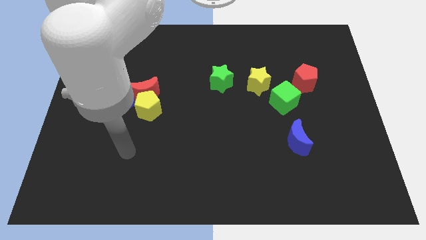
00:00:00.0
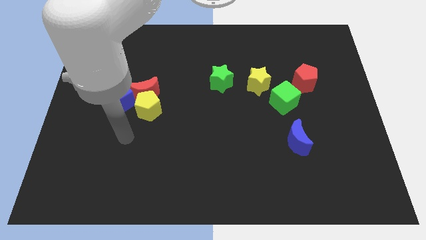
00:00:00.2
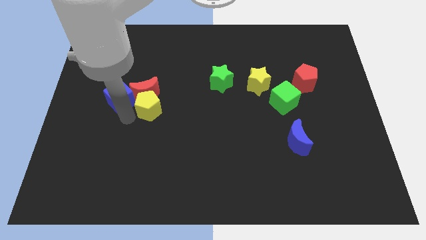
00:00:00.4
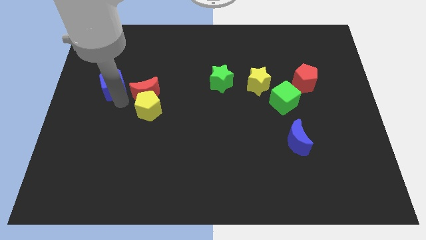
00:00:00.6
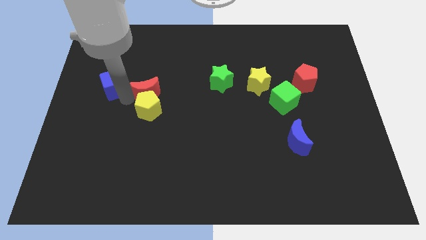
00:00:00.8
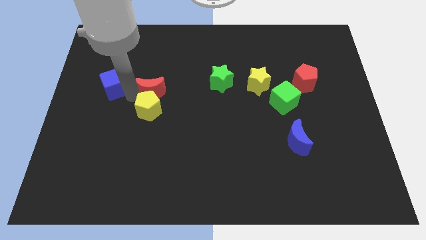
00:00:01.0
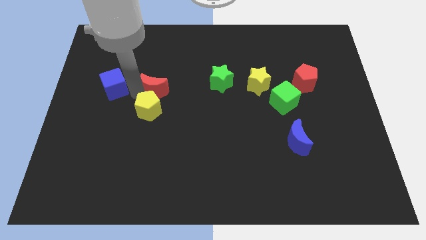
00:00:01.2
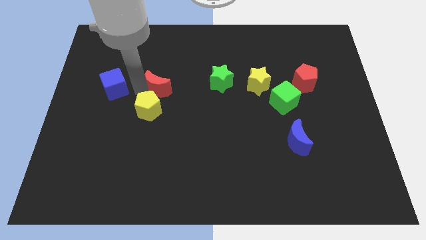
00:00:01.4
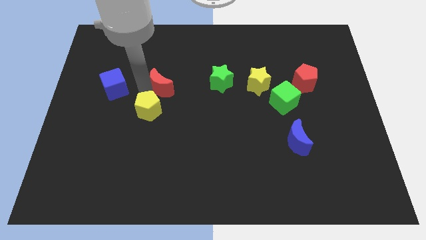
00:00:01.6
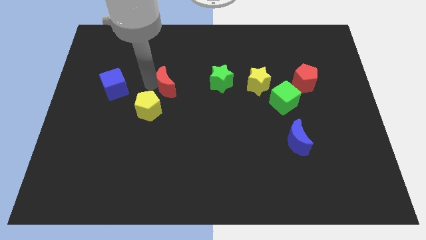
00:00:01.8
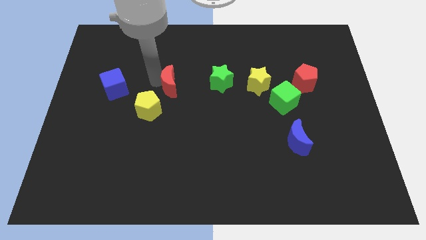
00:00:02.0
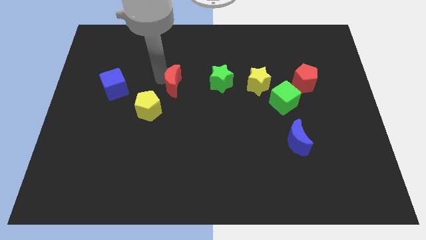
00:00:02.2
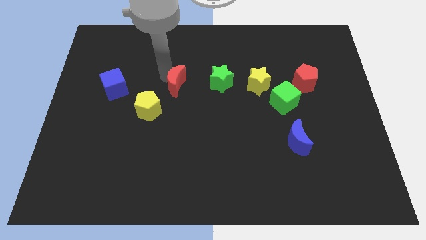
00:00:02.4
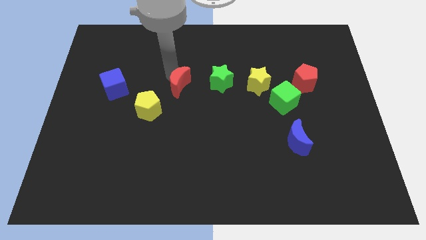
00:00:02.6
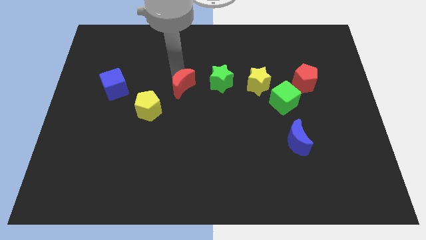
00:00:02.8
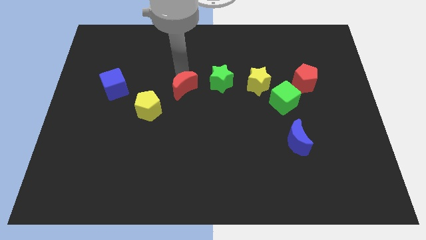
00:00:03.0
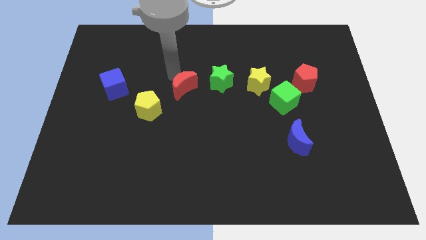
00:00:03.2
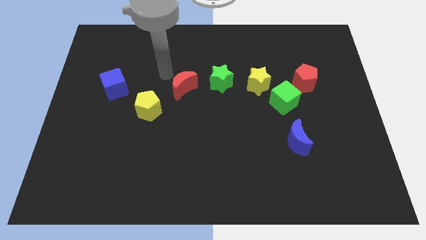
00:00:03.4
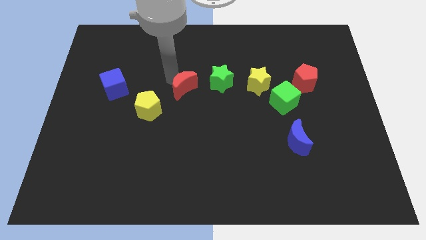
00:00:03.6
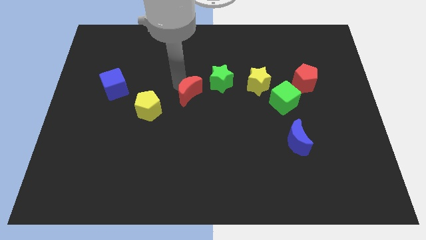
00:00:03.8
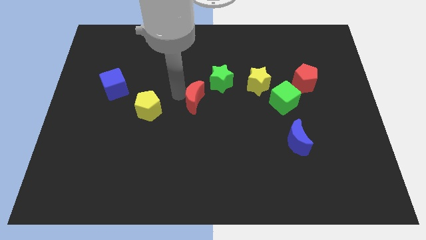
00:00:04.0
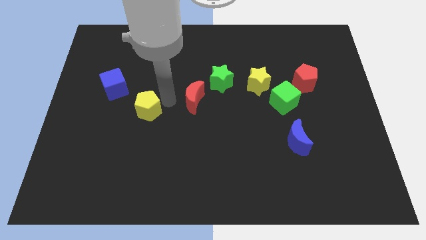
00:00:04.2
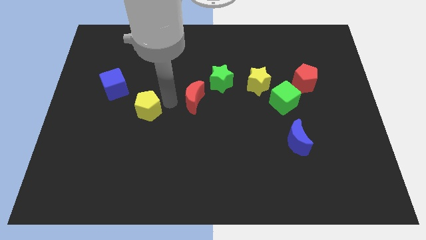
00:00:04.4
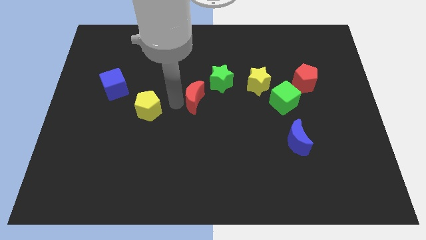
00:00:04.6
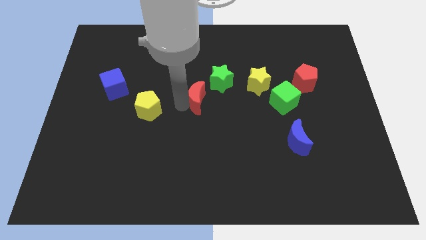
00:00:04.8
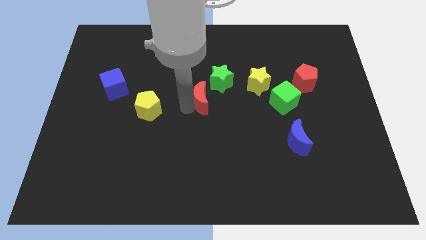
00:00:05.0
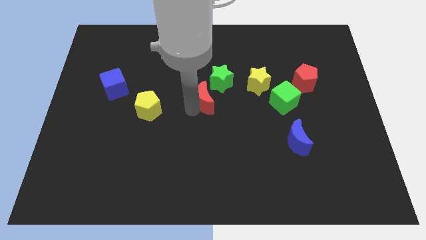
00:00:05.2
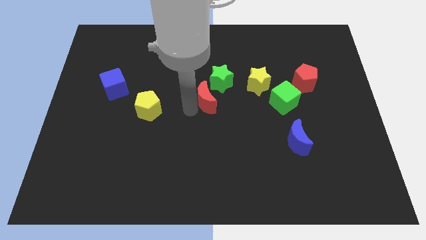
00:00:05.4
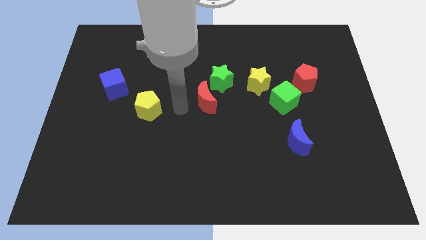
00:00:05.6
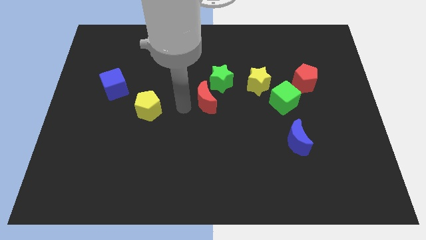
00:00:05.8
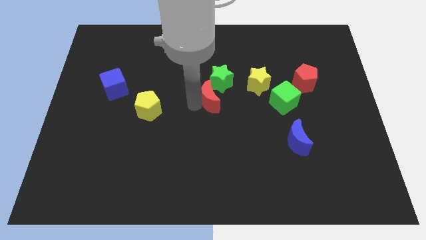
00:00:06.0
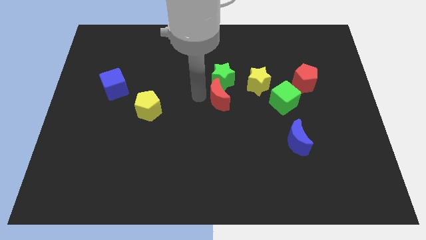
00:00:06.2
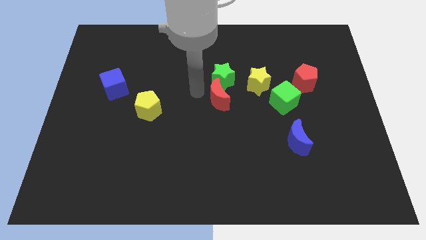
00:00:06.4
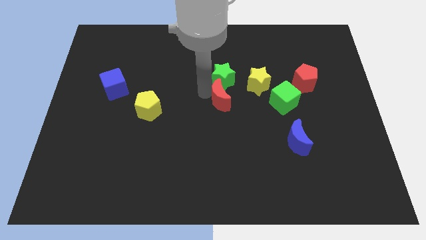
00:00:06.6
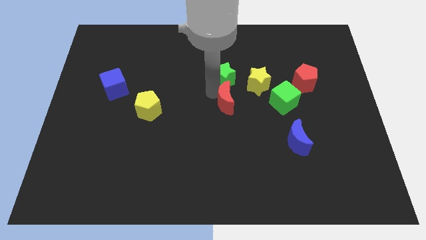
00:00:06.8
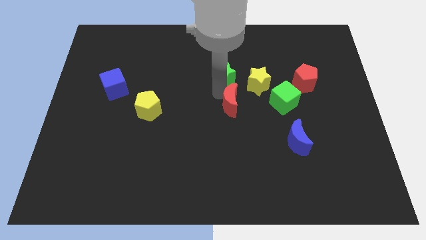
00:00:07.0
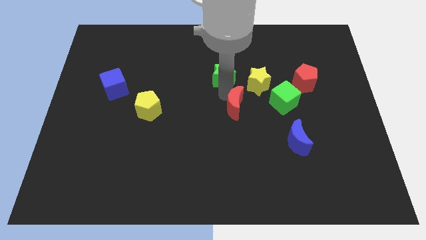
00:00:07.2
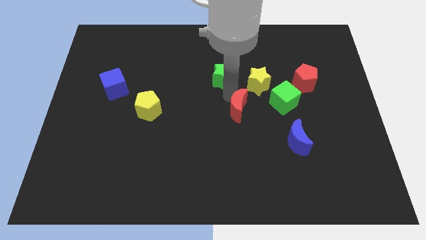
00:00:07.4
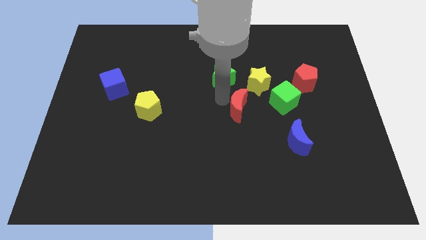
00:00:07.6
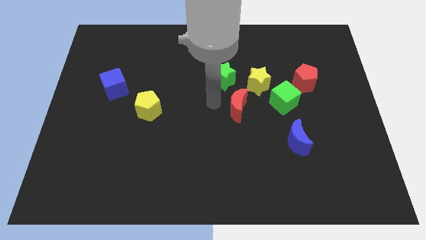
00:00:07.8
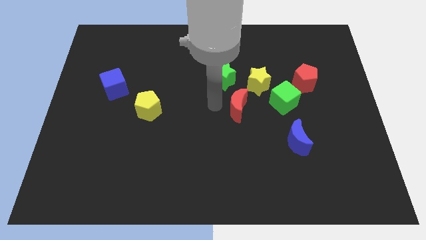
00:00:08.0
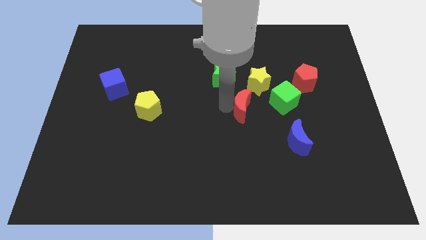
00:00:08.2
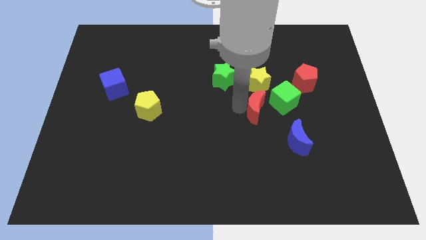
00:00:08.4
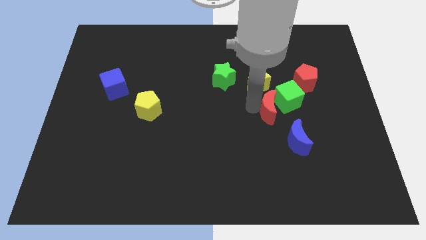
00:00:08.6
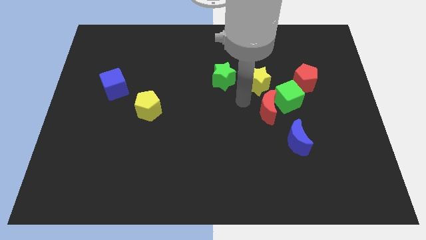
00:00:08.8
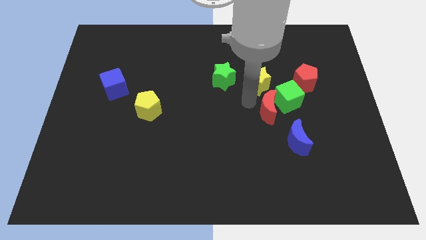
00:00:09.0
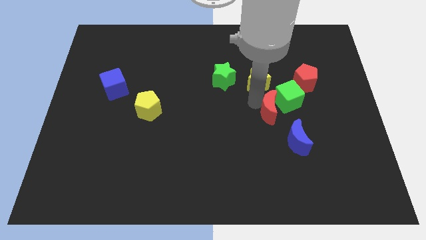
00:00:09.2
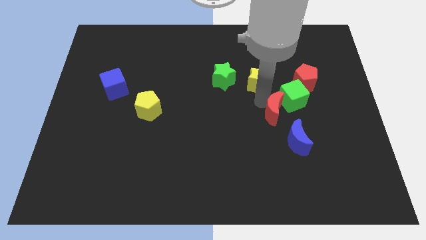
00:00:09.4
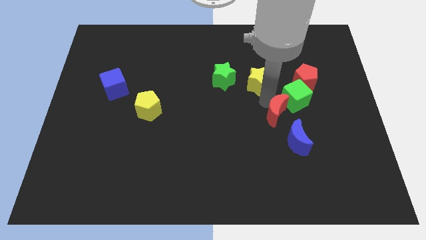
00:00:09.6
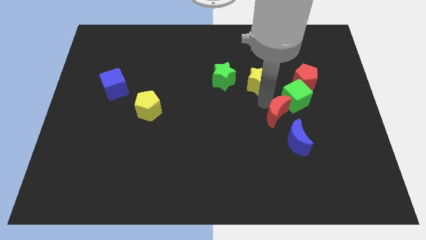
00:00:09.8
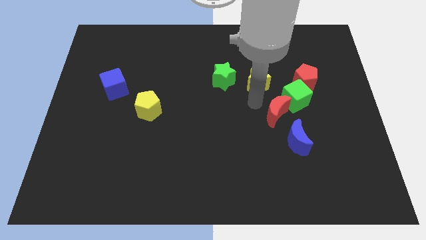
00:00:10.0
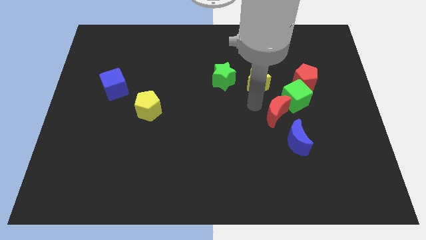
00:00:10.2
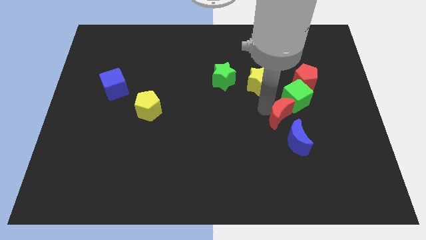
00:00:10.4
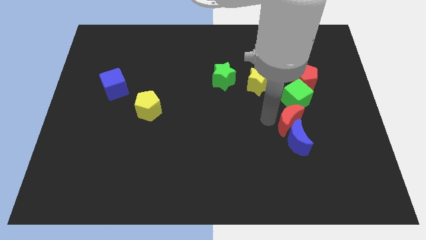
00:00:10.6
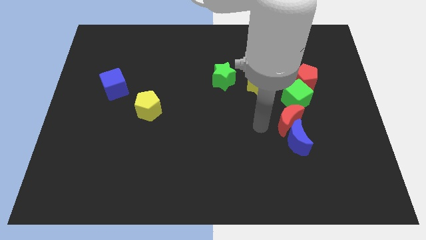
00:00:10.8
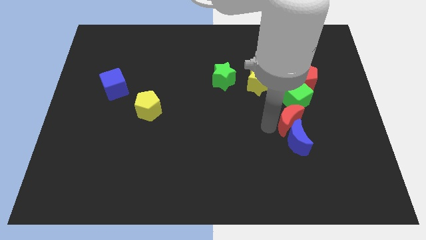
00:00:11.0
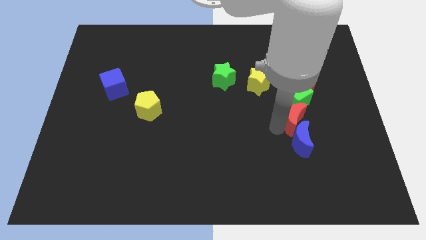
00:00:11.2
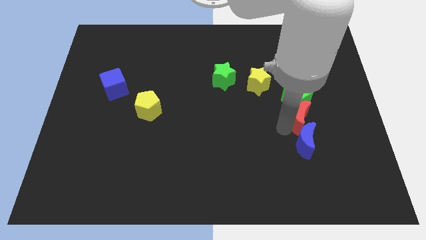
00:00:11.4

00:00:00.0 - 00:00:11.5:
move the red moon to the bottom right of the green cube

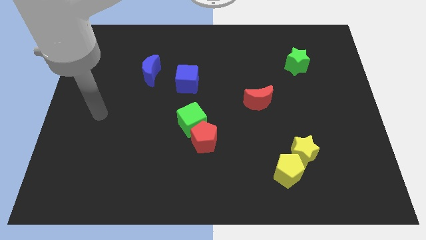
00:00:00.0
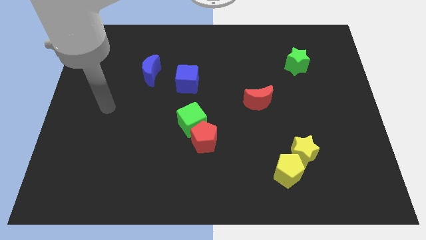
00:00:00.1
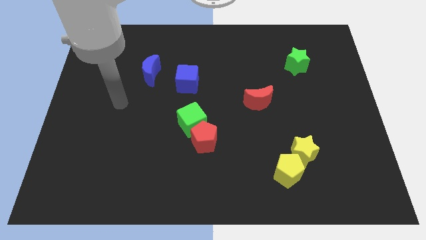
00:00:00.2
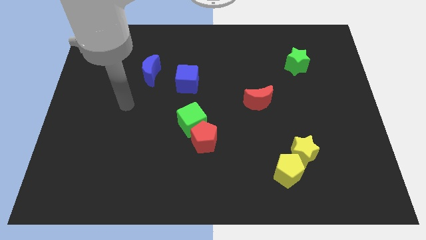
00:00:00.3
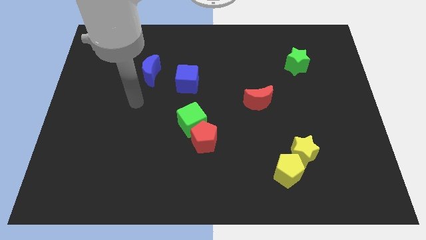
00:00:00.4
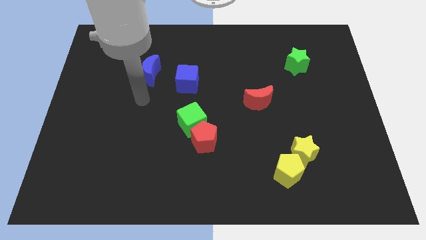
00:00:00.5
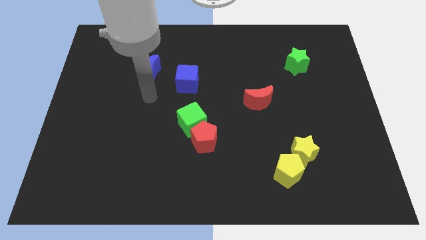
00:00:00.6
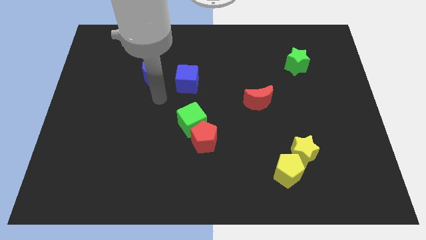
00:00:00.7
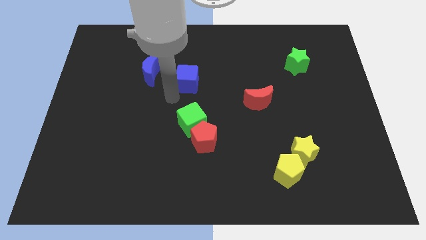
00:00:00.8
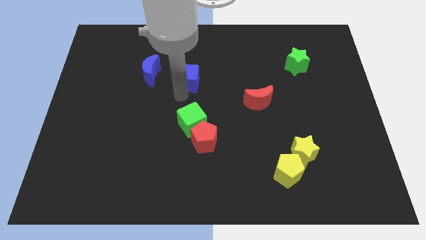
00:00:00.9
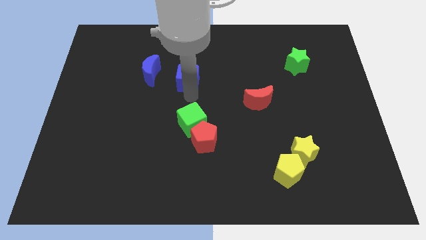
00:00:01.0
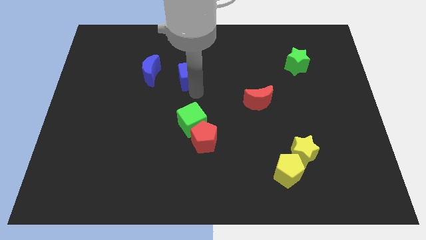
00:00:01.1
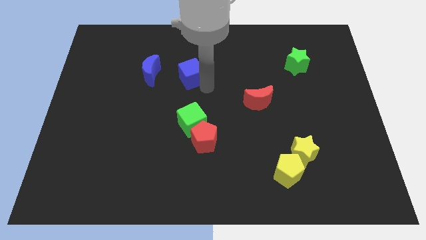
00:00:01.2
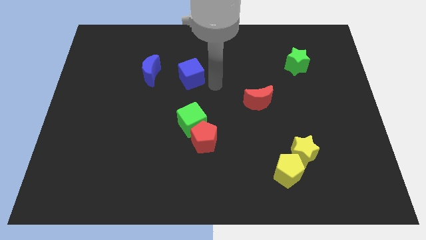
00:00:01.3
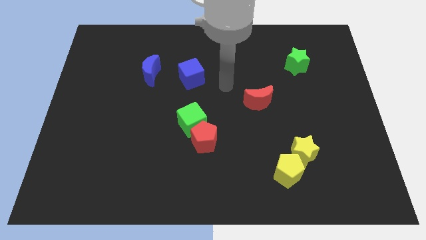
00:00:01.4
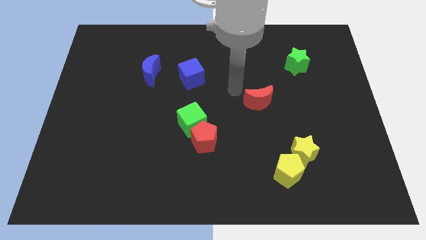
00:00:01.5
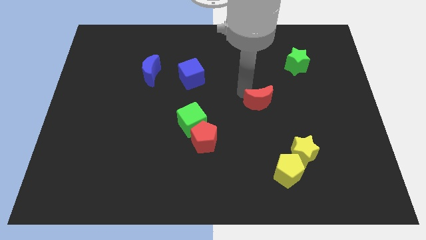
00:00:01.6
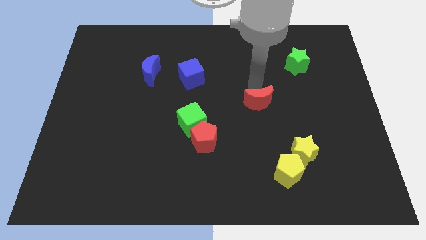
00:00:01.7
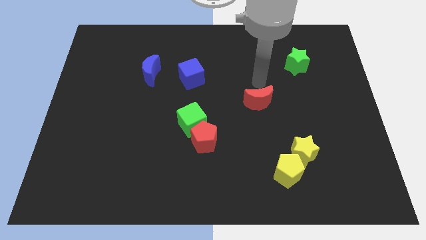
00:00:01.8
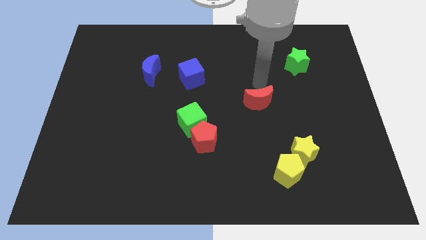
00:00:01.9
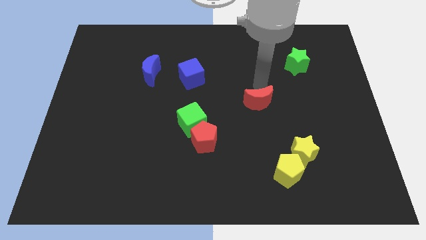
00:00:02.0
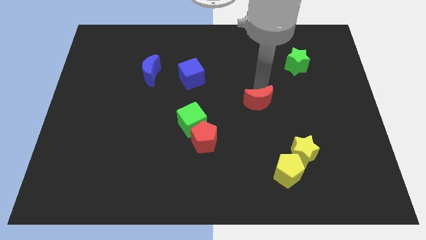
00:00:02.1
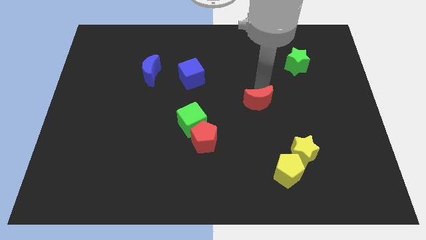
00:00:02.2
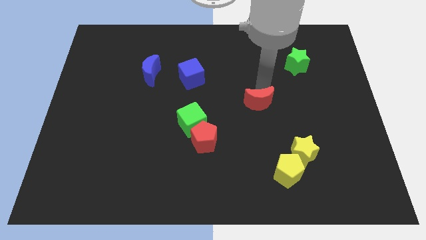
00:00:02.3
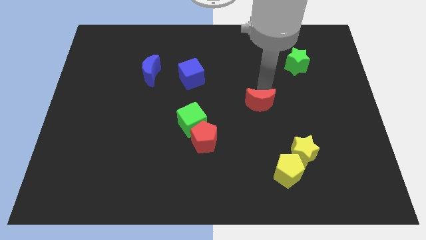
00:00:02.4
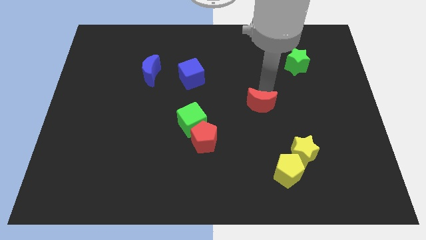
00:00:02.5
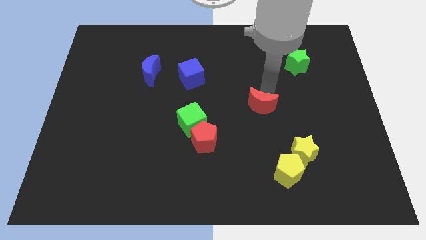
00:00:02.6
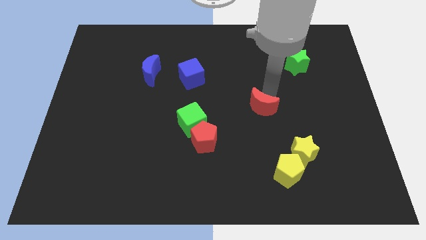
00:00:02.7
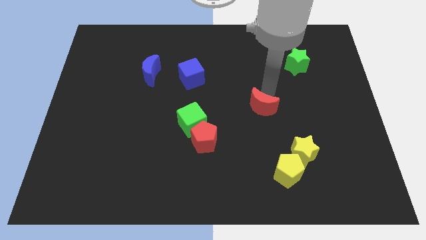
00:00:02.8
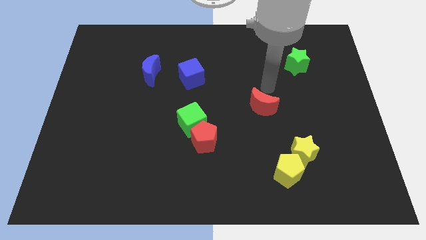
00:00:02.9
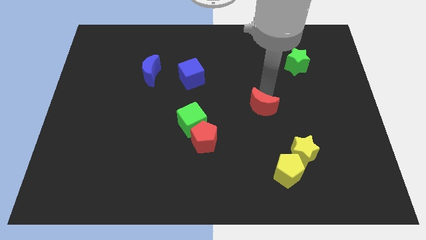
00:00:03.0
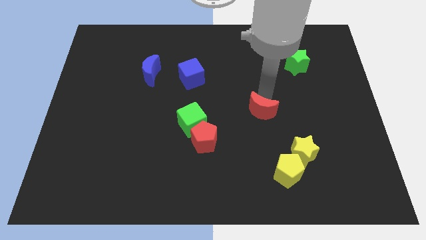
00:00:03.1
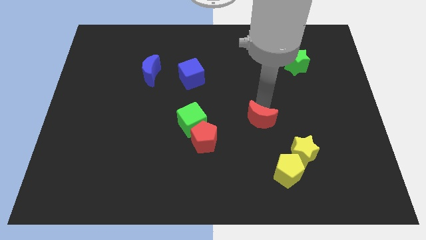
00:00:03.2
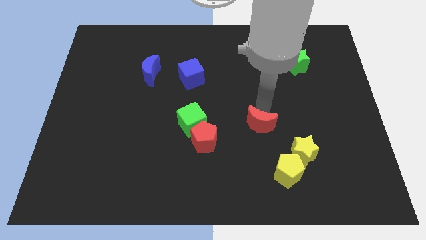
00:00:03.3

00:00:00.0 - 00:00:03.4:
slide the red moon to the right side of the red pentagon
